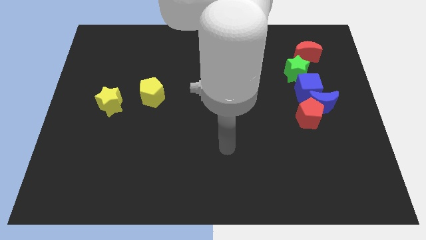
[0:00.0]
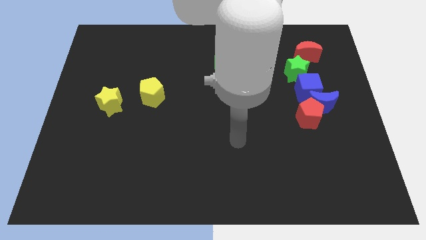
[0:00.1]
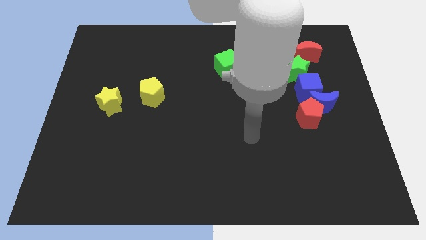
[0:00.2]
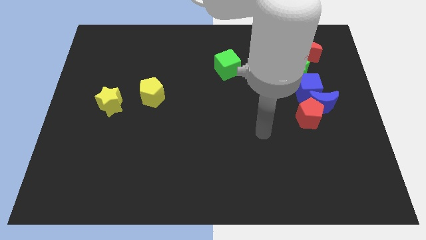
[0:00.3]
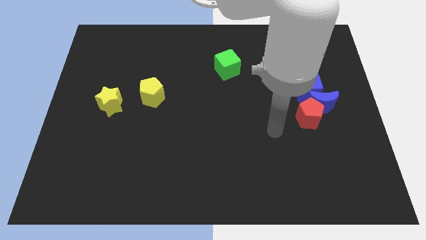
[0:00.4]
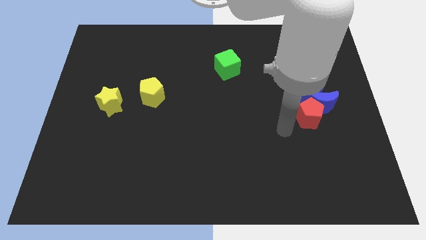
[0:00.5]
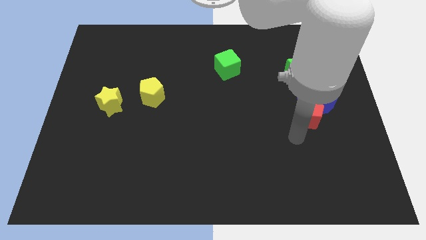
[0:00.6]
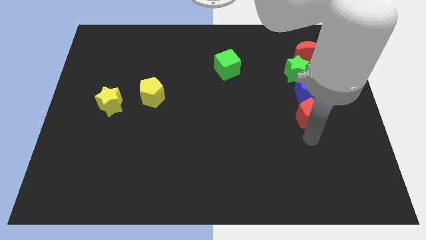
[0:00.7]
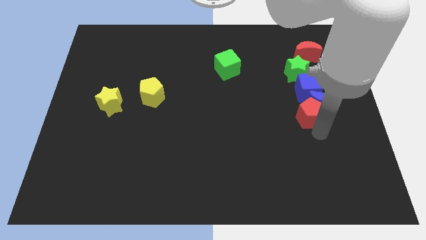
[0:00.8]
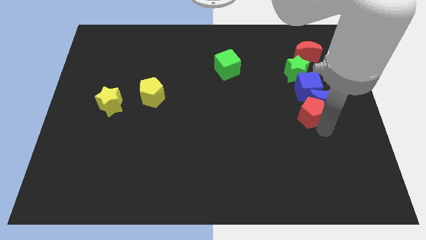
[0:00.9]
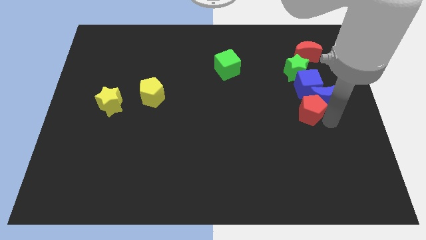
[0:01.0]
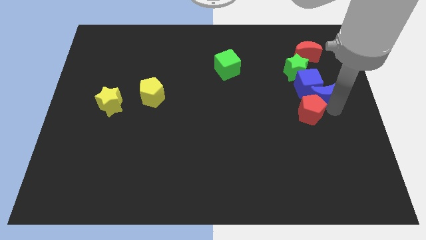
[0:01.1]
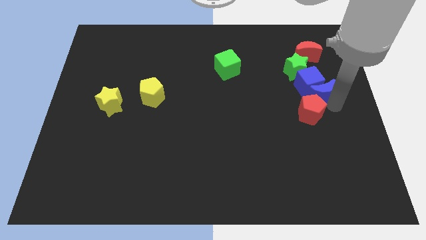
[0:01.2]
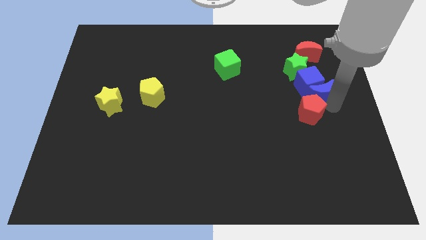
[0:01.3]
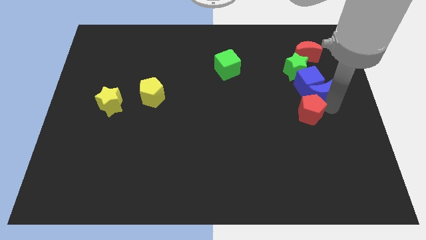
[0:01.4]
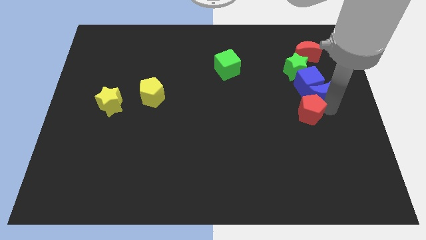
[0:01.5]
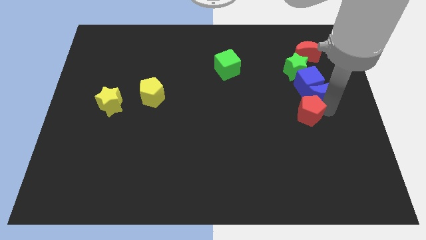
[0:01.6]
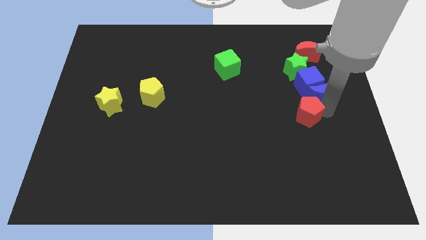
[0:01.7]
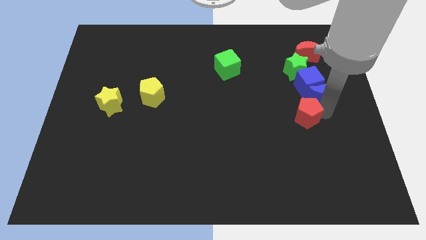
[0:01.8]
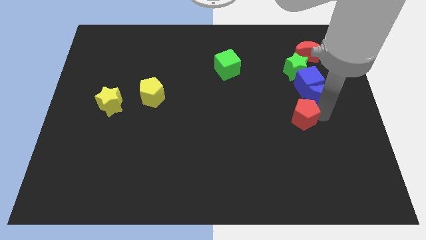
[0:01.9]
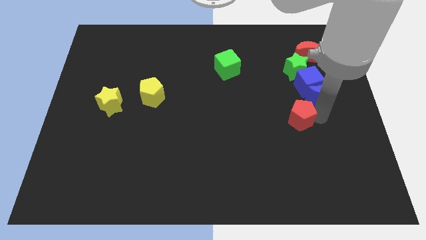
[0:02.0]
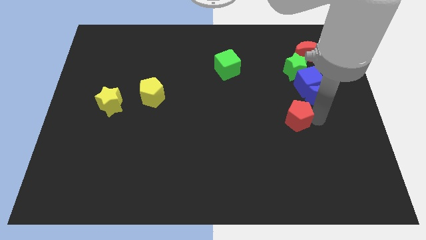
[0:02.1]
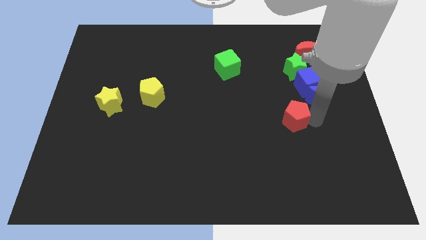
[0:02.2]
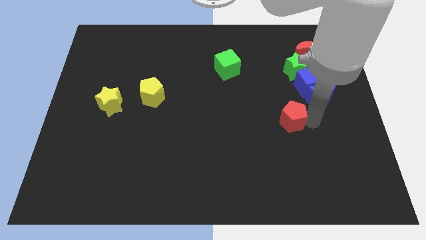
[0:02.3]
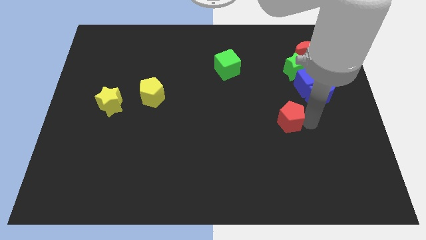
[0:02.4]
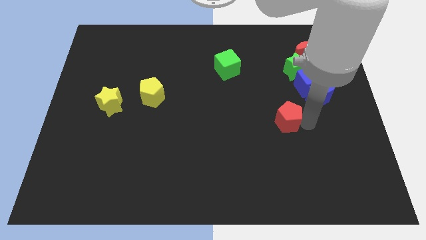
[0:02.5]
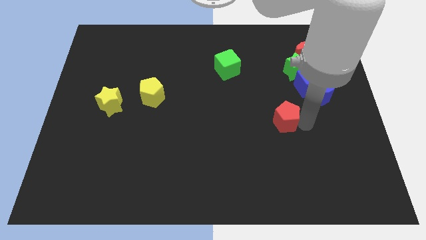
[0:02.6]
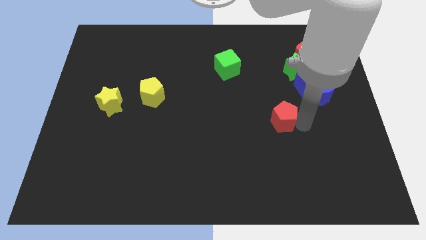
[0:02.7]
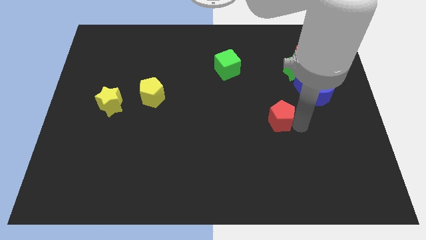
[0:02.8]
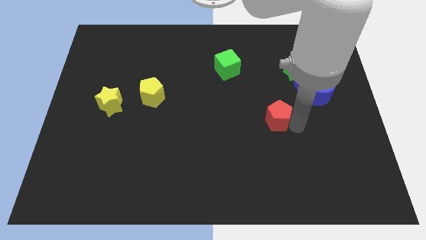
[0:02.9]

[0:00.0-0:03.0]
move the red pentagon a little bit to the left

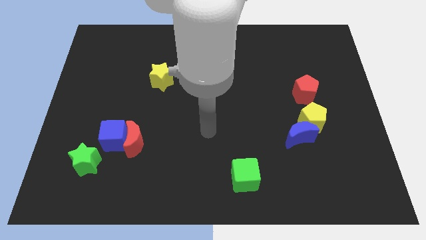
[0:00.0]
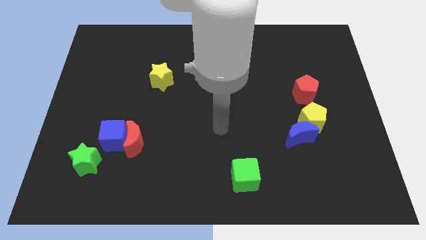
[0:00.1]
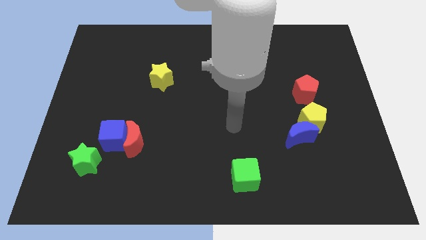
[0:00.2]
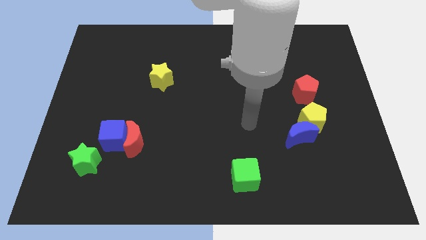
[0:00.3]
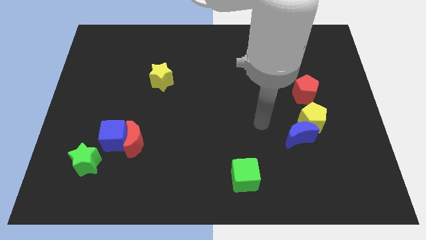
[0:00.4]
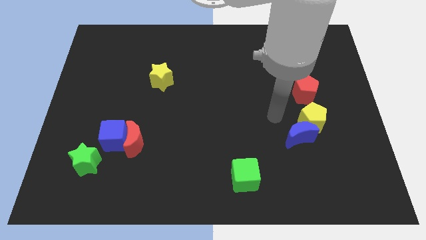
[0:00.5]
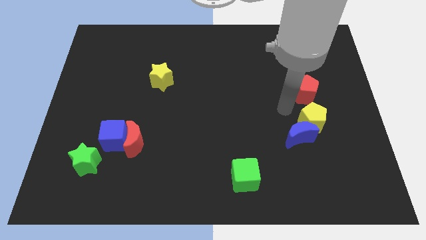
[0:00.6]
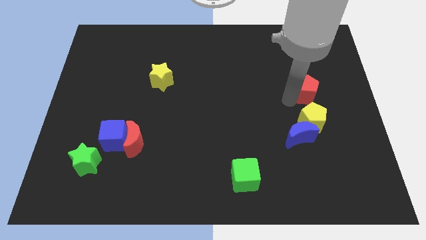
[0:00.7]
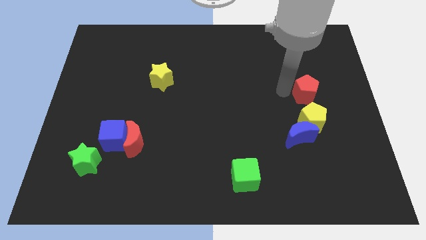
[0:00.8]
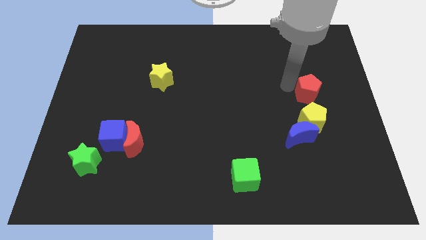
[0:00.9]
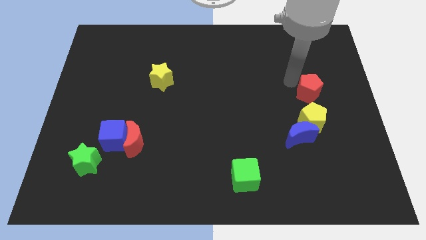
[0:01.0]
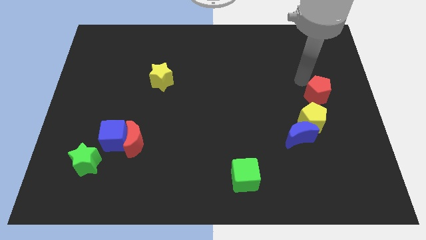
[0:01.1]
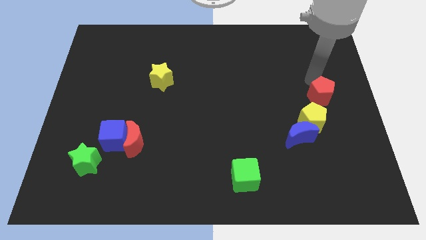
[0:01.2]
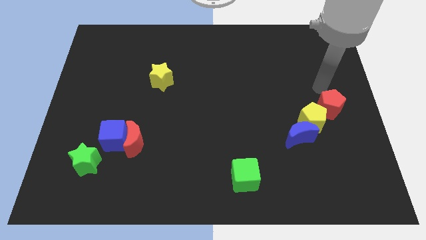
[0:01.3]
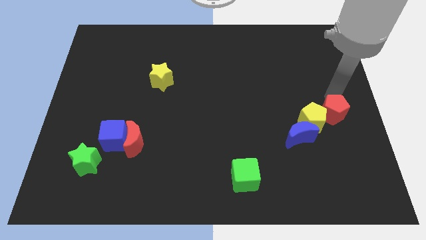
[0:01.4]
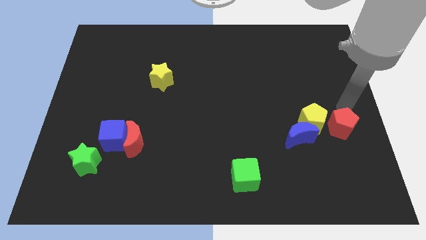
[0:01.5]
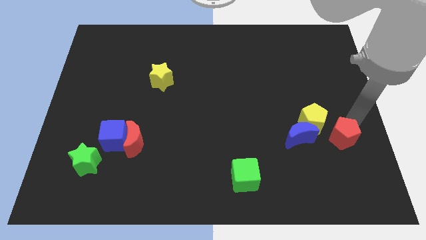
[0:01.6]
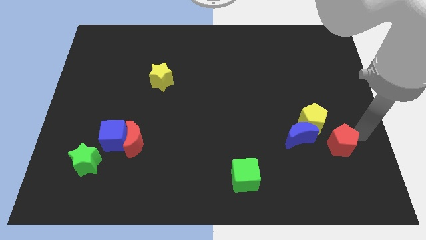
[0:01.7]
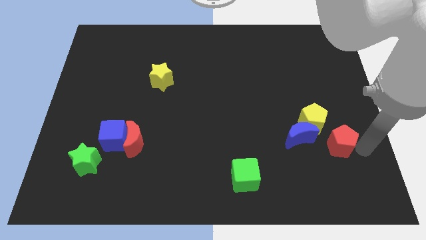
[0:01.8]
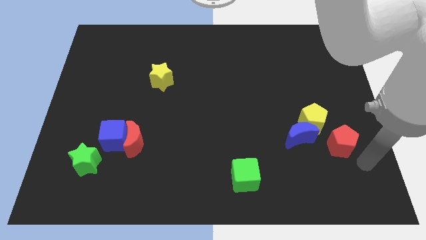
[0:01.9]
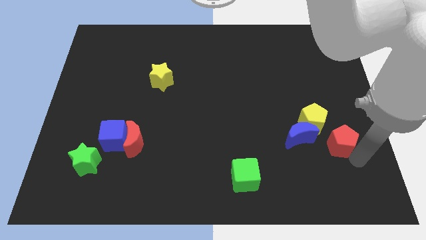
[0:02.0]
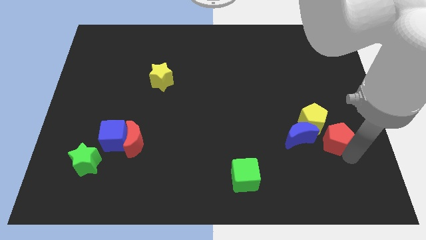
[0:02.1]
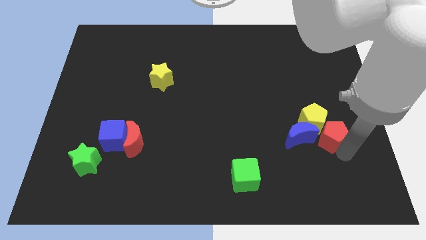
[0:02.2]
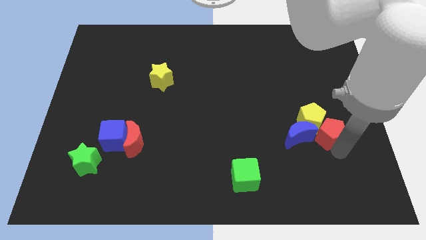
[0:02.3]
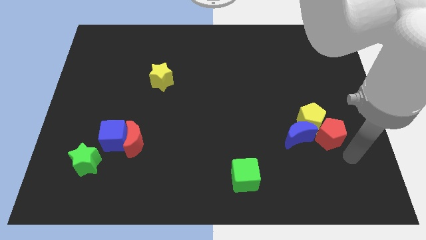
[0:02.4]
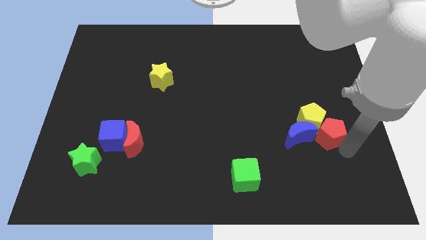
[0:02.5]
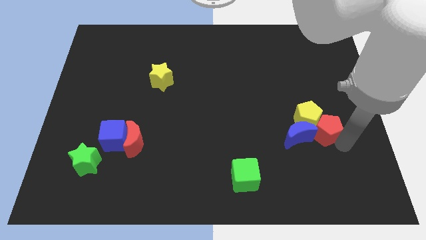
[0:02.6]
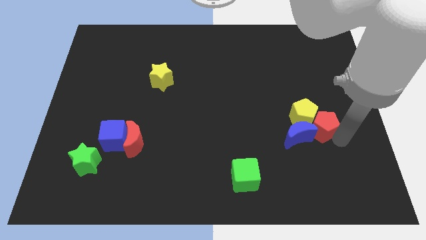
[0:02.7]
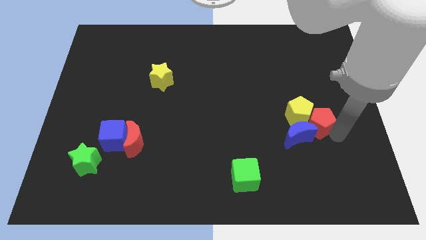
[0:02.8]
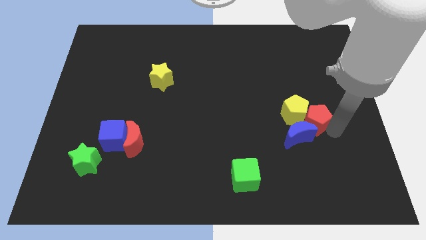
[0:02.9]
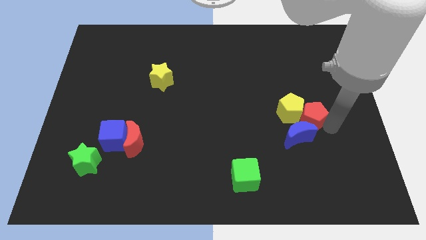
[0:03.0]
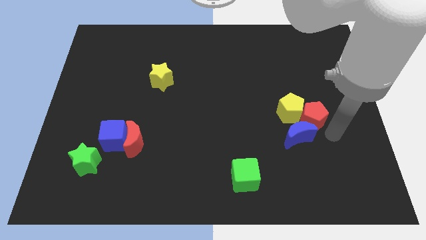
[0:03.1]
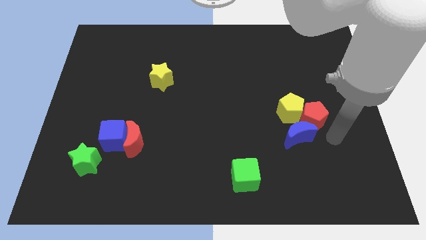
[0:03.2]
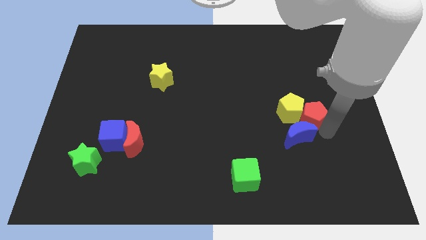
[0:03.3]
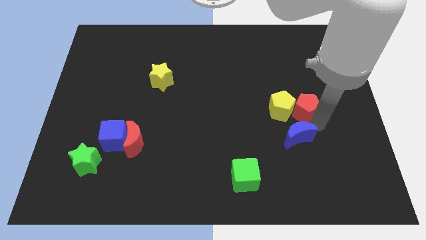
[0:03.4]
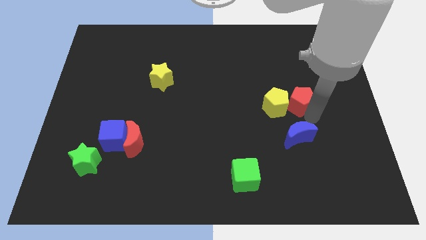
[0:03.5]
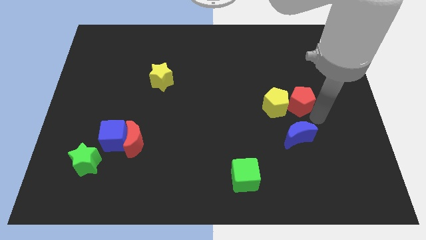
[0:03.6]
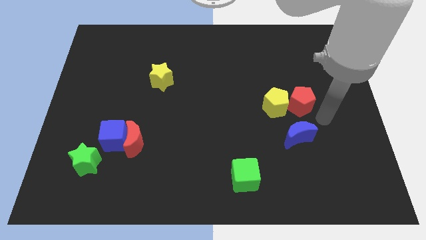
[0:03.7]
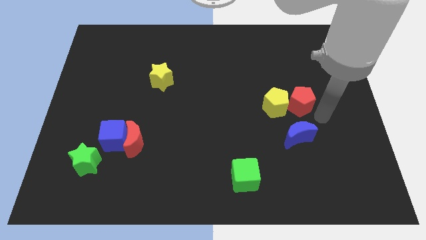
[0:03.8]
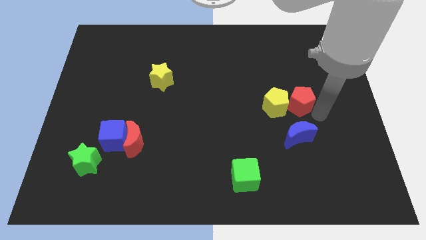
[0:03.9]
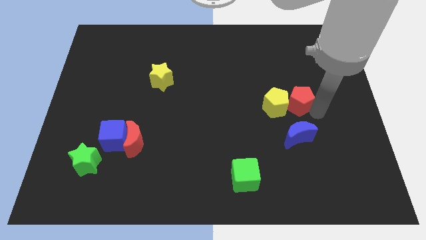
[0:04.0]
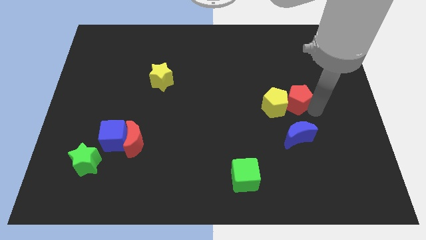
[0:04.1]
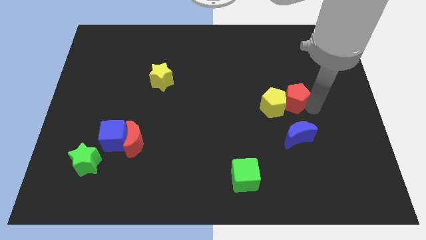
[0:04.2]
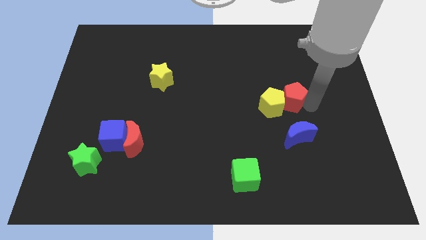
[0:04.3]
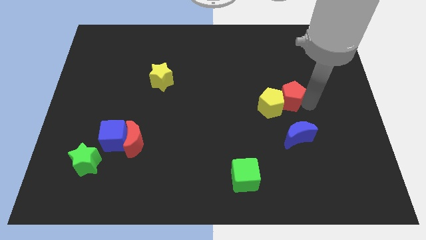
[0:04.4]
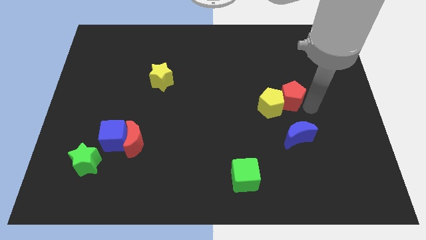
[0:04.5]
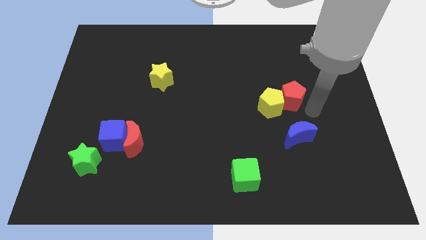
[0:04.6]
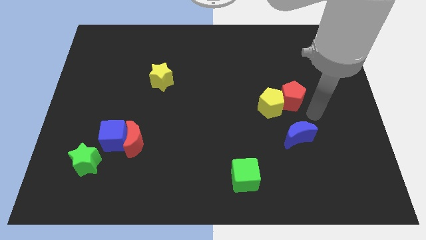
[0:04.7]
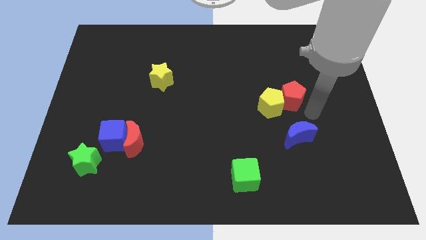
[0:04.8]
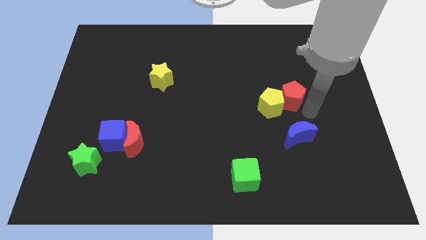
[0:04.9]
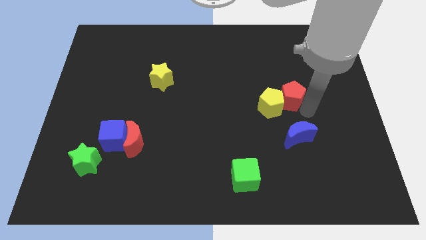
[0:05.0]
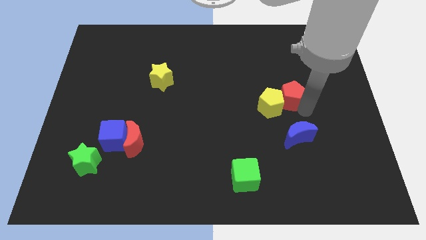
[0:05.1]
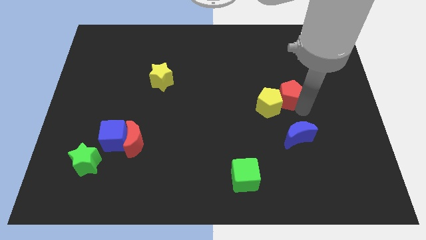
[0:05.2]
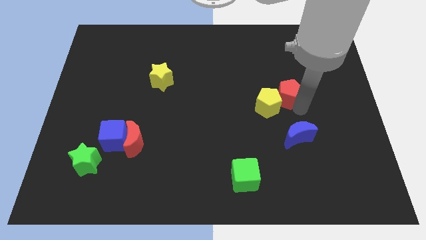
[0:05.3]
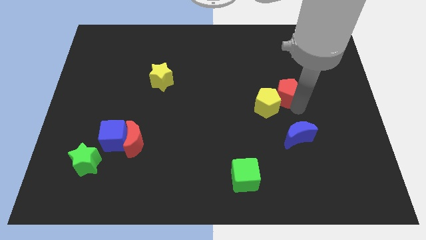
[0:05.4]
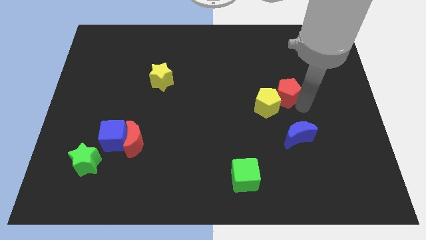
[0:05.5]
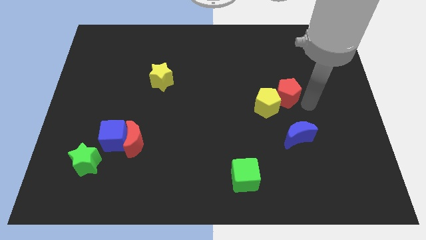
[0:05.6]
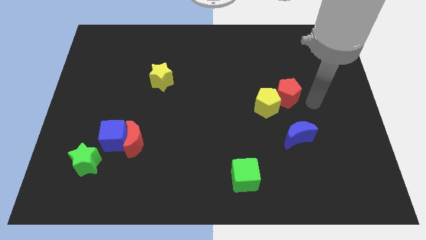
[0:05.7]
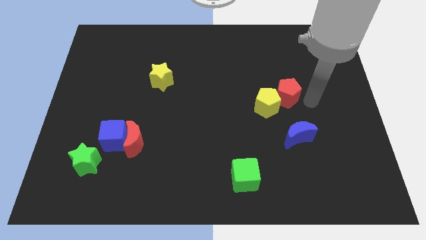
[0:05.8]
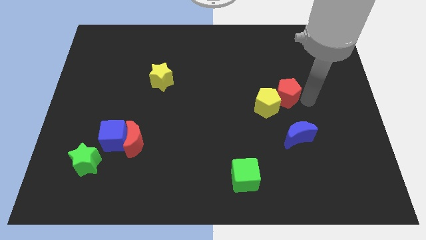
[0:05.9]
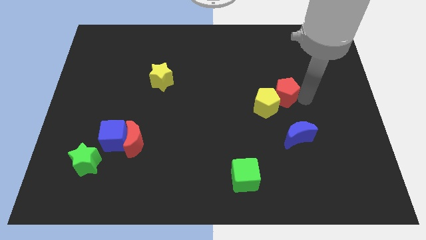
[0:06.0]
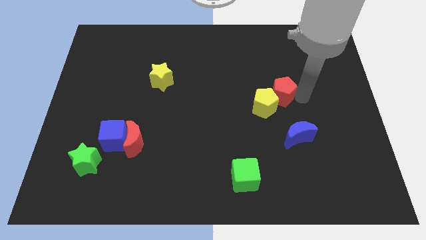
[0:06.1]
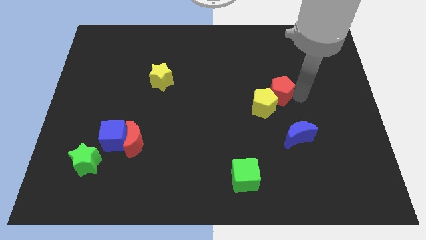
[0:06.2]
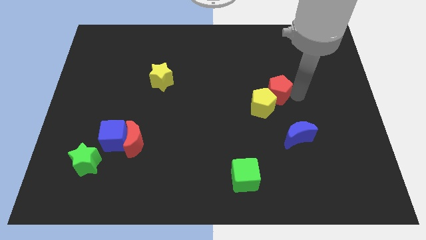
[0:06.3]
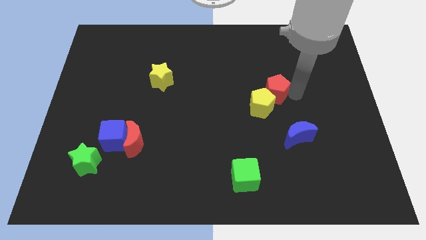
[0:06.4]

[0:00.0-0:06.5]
move the red pentagon slightly to the left
